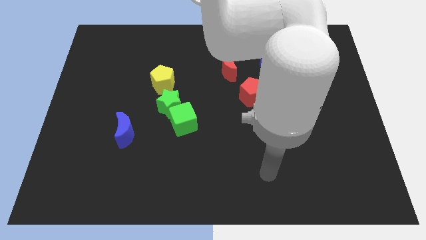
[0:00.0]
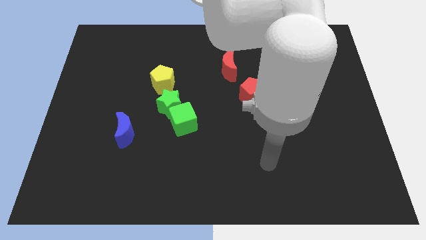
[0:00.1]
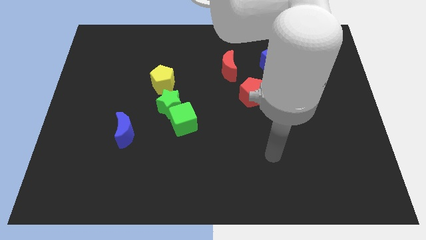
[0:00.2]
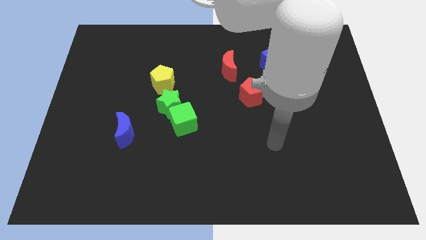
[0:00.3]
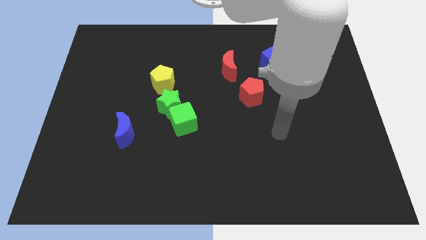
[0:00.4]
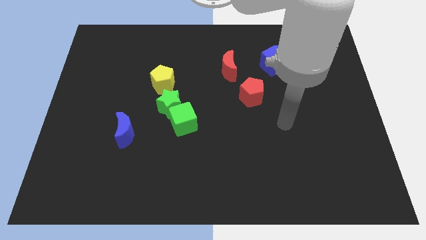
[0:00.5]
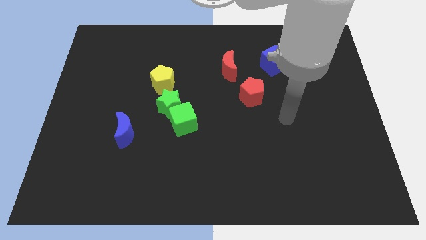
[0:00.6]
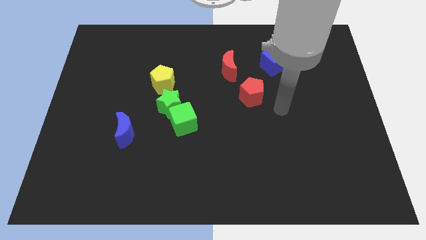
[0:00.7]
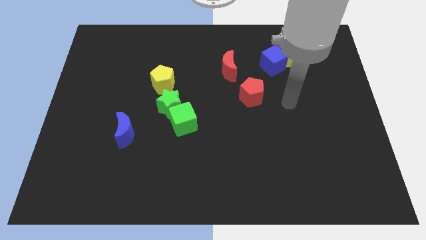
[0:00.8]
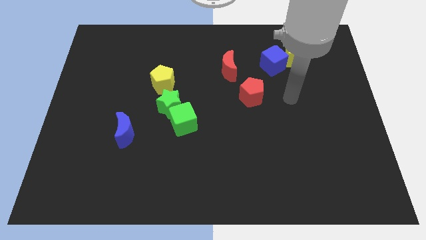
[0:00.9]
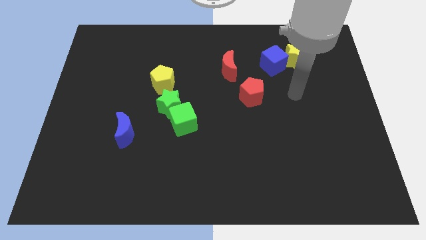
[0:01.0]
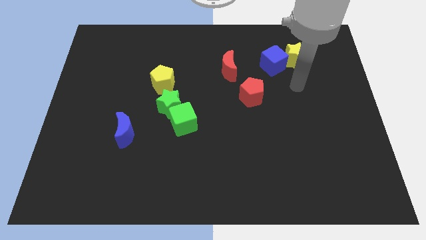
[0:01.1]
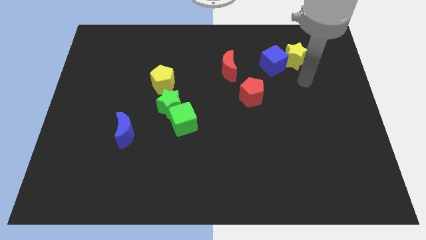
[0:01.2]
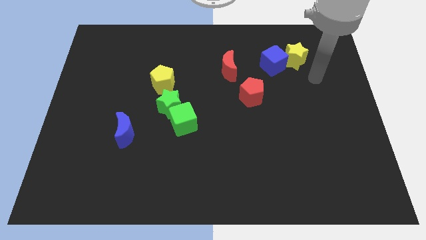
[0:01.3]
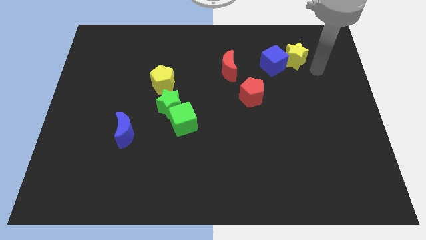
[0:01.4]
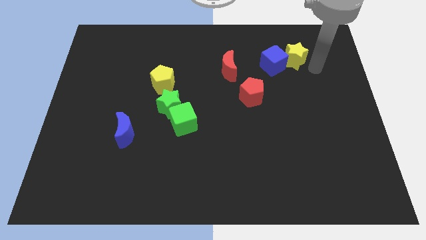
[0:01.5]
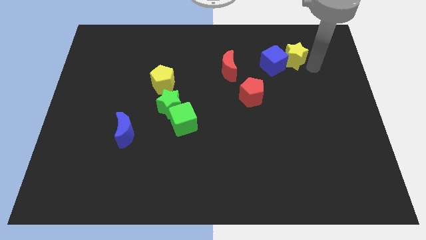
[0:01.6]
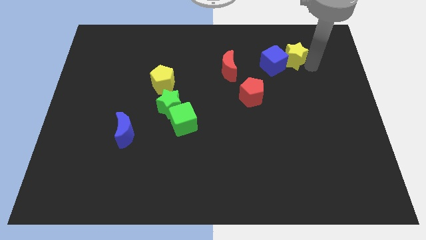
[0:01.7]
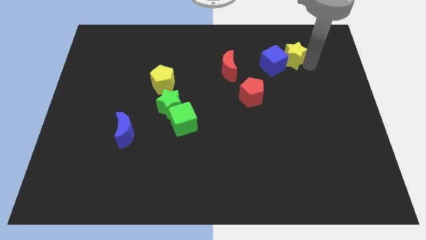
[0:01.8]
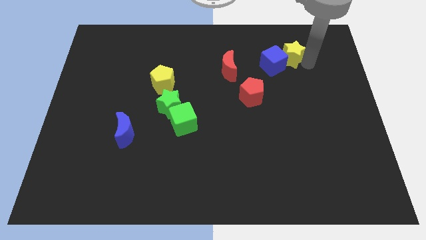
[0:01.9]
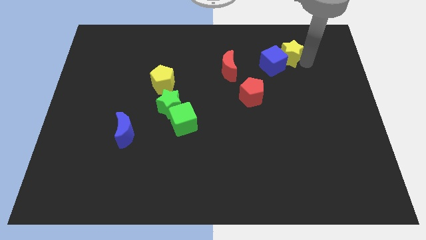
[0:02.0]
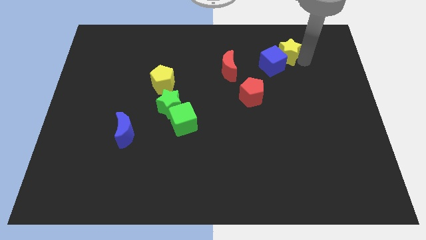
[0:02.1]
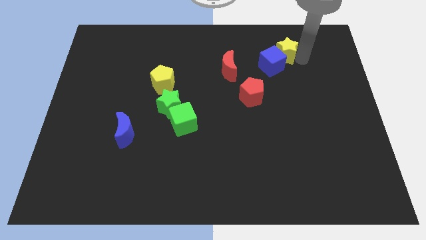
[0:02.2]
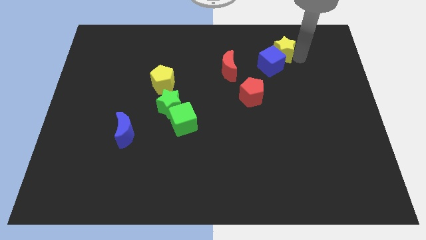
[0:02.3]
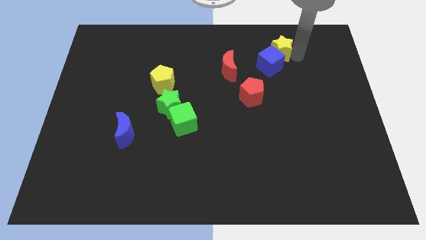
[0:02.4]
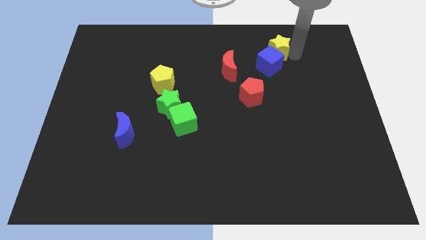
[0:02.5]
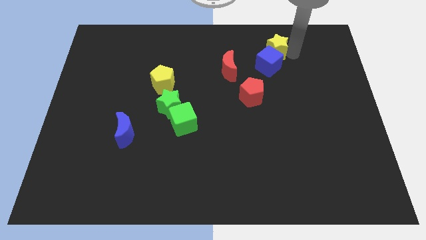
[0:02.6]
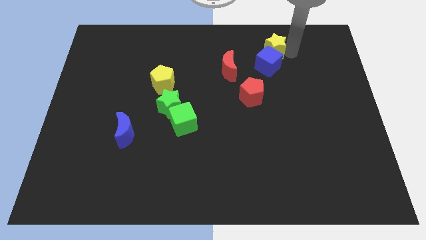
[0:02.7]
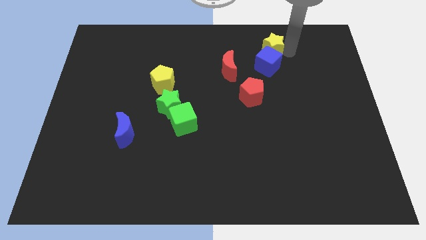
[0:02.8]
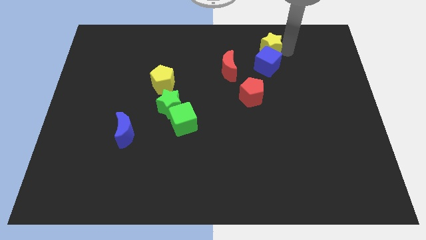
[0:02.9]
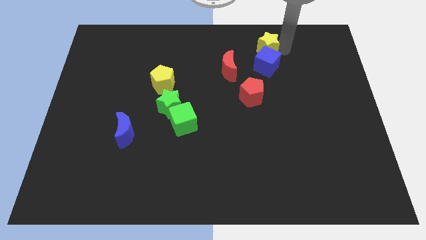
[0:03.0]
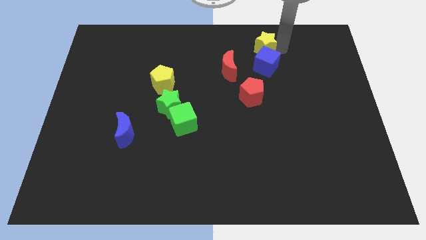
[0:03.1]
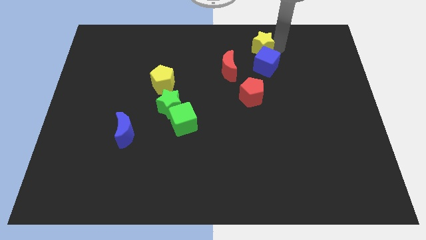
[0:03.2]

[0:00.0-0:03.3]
slightly push the yellow star to the left

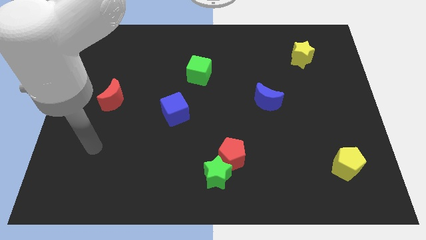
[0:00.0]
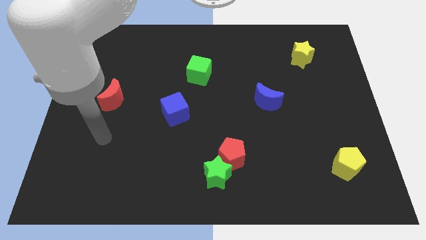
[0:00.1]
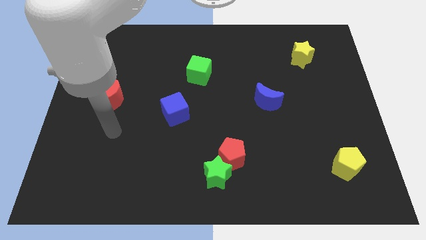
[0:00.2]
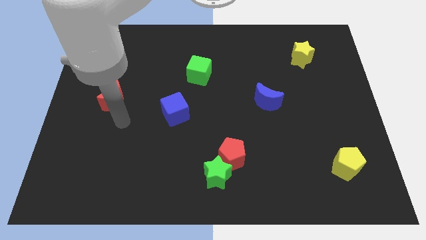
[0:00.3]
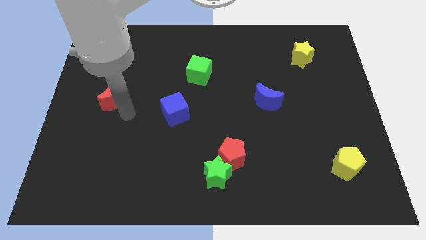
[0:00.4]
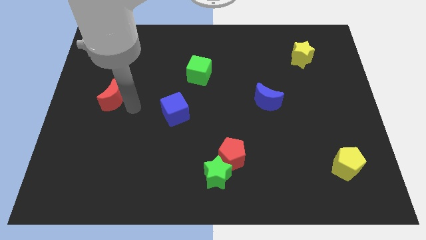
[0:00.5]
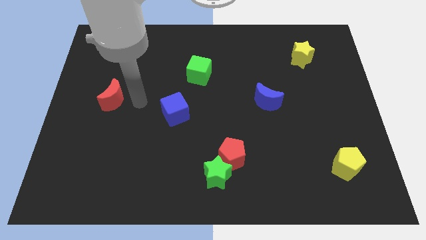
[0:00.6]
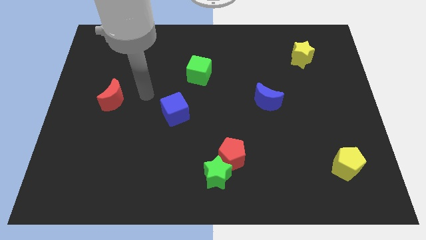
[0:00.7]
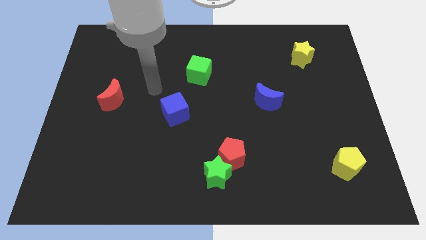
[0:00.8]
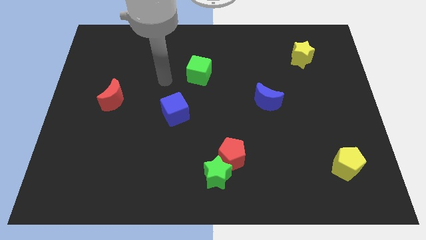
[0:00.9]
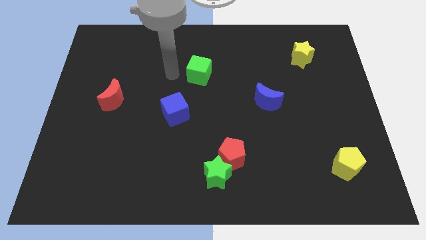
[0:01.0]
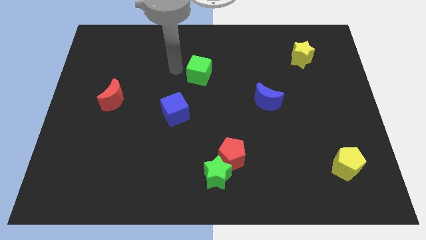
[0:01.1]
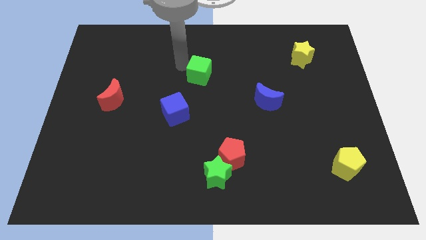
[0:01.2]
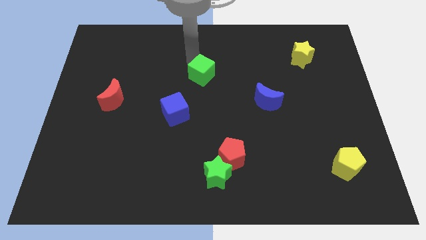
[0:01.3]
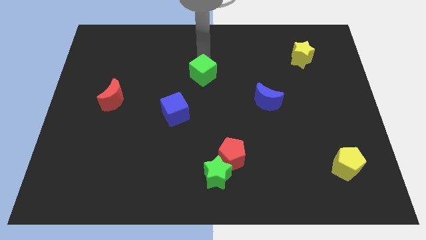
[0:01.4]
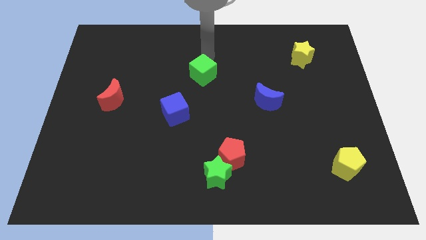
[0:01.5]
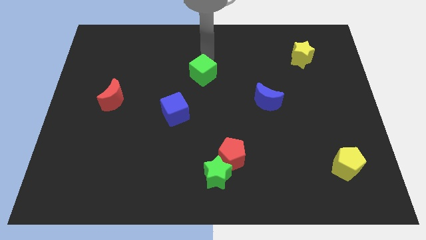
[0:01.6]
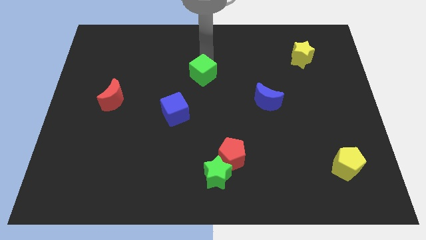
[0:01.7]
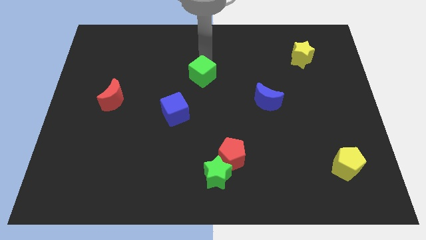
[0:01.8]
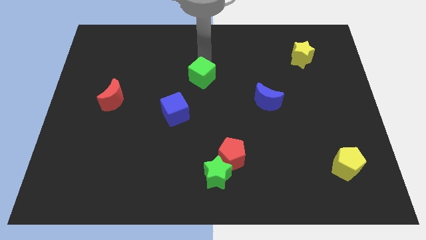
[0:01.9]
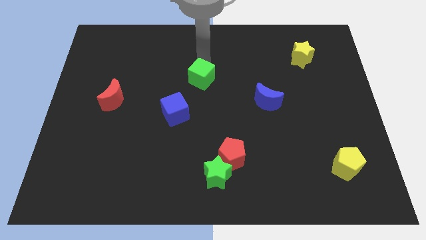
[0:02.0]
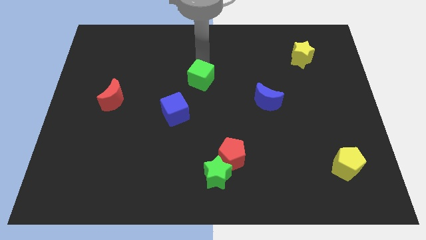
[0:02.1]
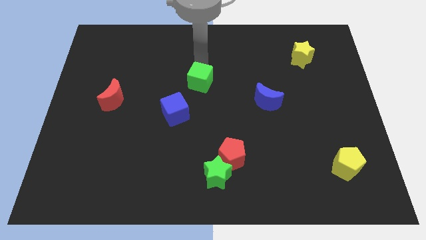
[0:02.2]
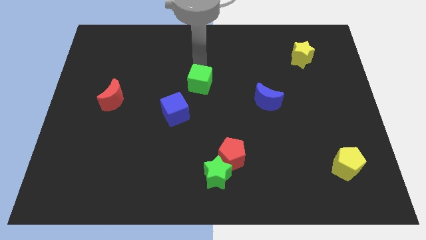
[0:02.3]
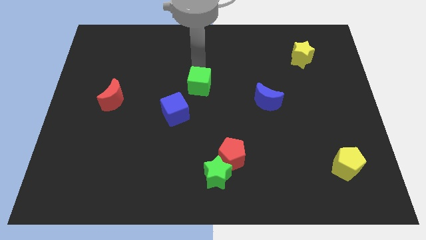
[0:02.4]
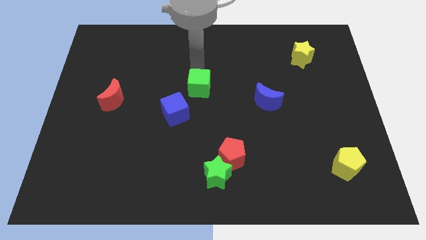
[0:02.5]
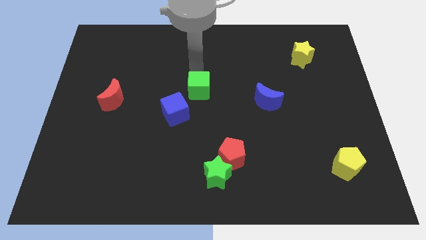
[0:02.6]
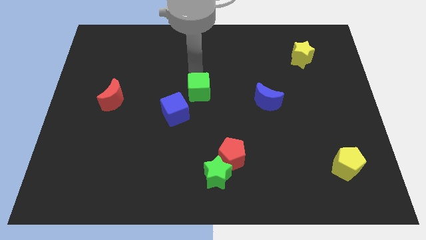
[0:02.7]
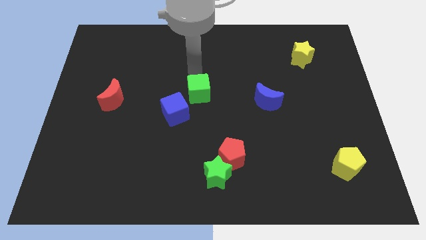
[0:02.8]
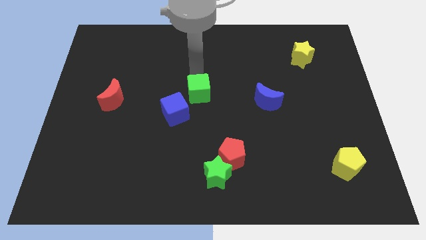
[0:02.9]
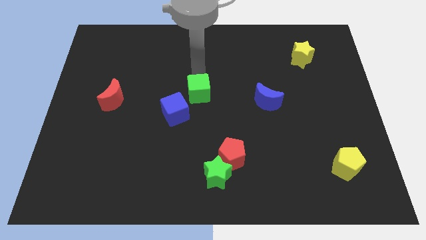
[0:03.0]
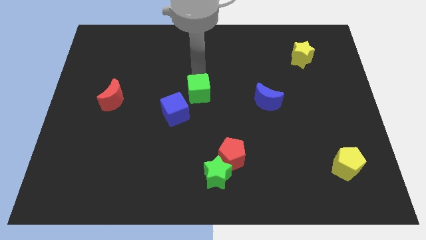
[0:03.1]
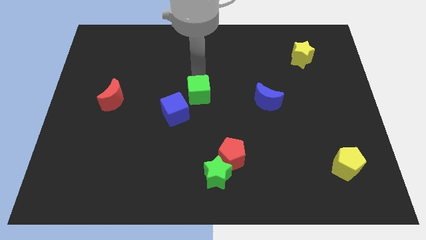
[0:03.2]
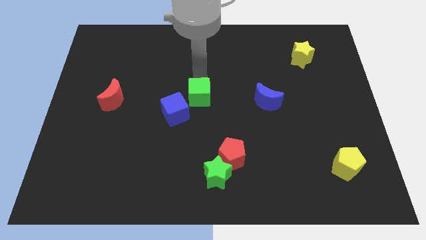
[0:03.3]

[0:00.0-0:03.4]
move the green cube slightly down

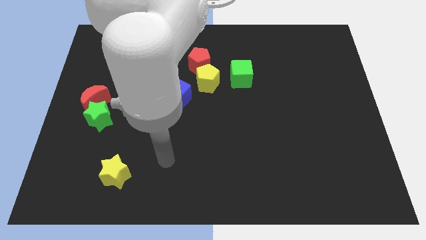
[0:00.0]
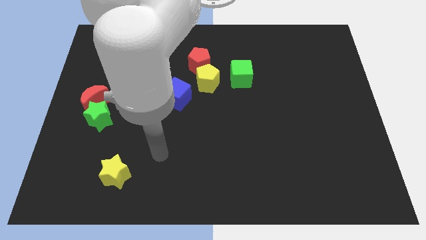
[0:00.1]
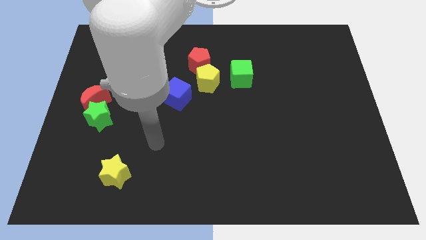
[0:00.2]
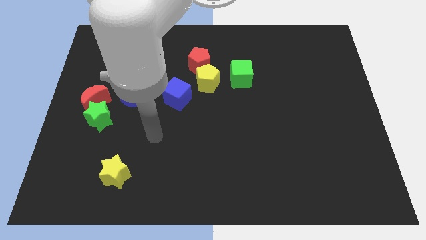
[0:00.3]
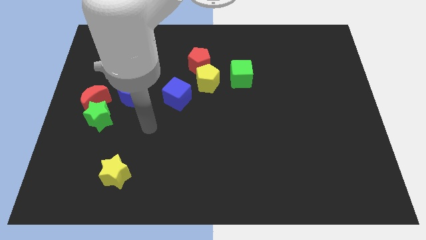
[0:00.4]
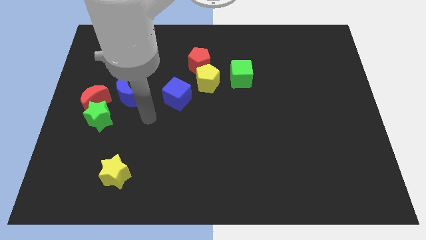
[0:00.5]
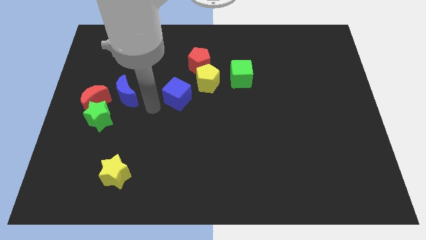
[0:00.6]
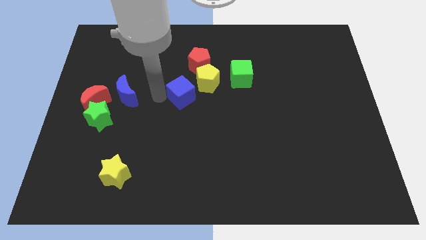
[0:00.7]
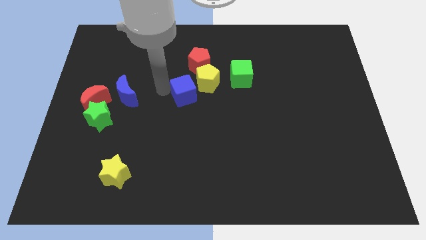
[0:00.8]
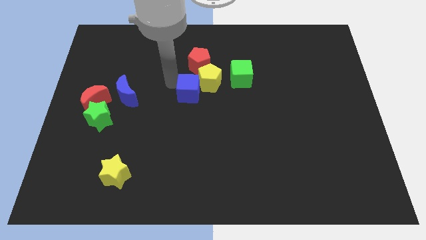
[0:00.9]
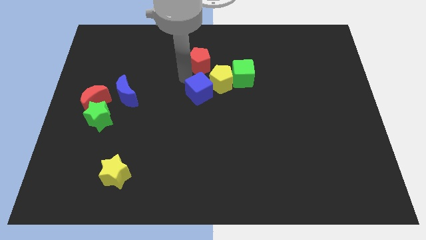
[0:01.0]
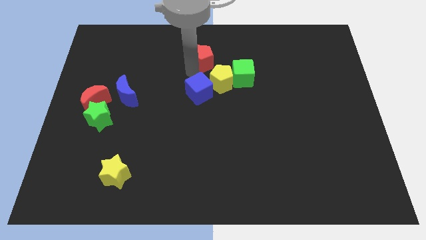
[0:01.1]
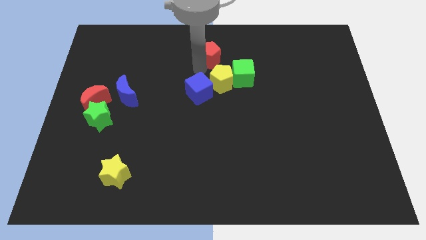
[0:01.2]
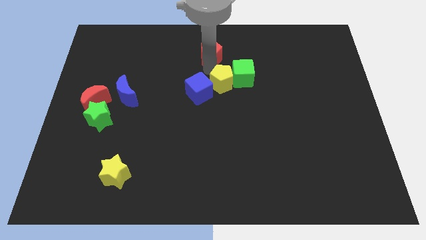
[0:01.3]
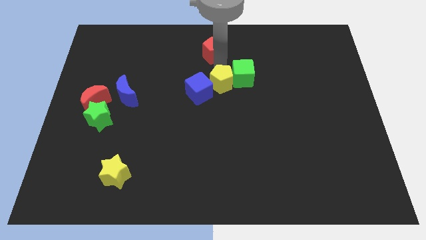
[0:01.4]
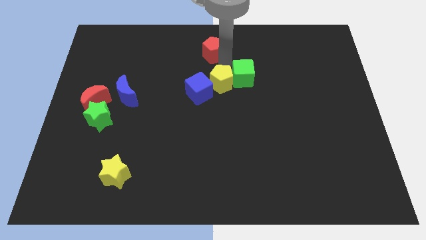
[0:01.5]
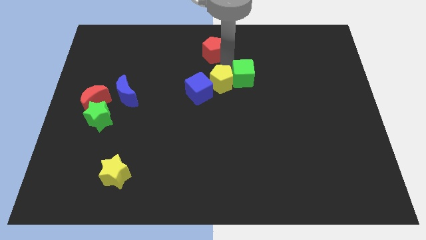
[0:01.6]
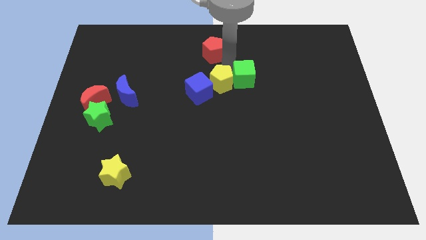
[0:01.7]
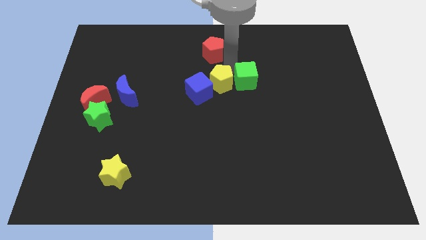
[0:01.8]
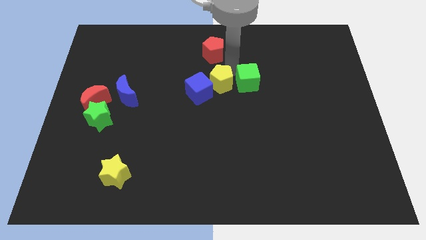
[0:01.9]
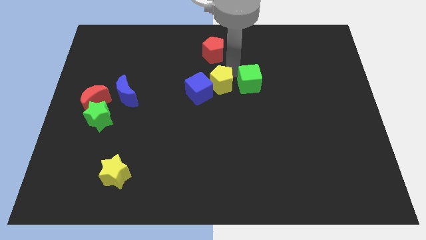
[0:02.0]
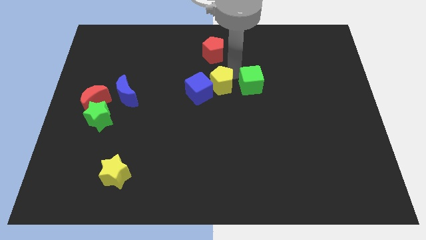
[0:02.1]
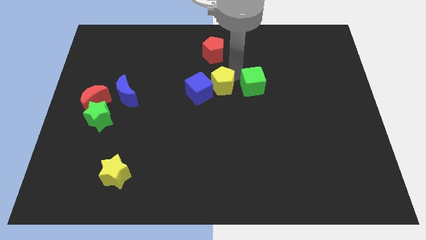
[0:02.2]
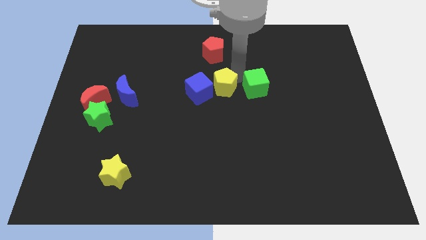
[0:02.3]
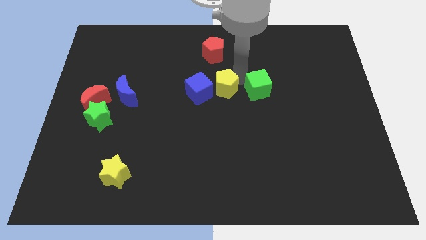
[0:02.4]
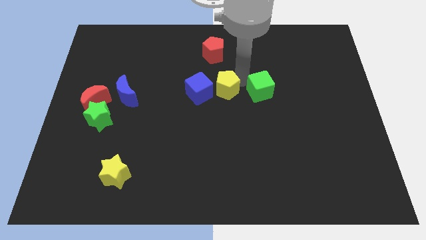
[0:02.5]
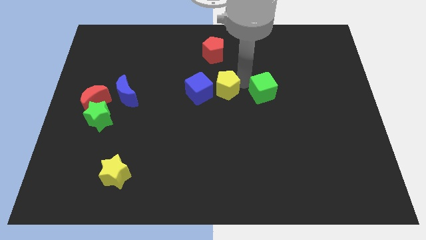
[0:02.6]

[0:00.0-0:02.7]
slightly push the green cube diagonally down and to the right
